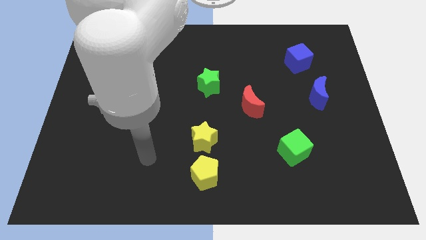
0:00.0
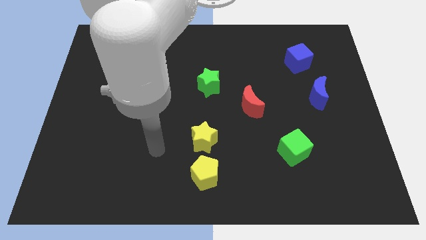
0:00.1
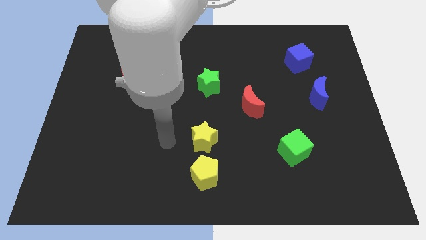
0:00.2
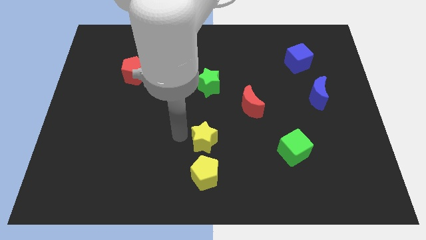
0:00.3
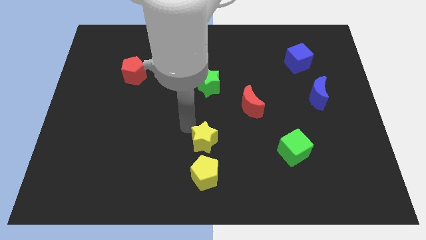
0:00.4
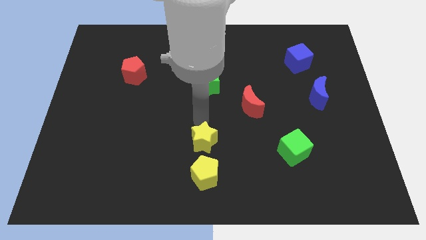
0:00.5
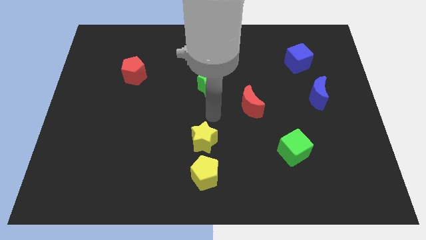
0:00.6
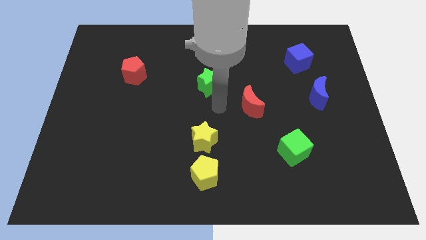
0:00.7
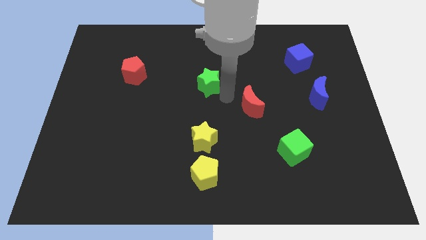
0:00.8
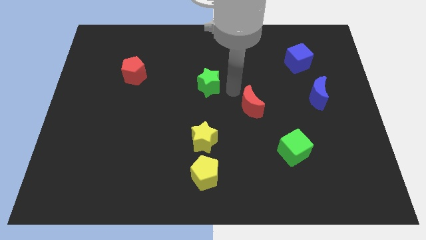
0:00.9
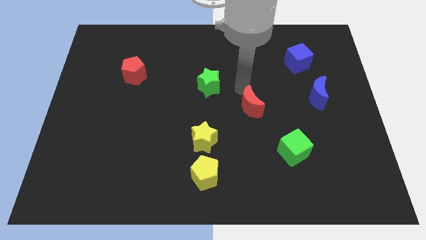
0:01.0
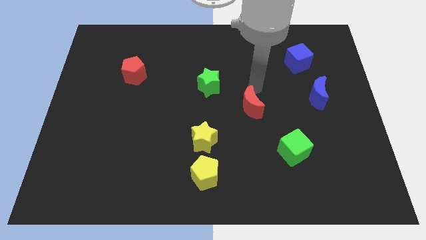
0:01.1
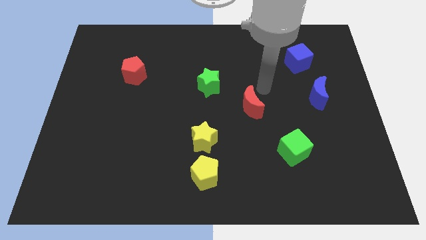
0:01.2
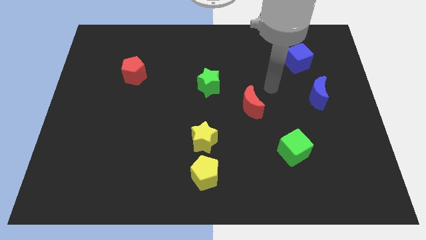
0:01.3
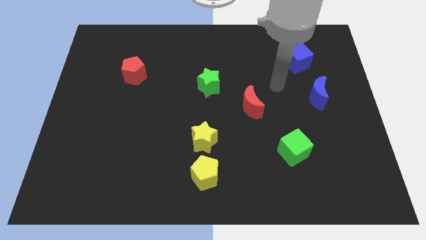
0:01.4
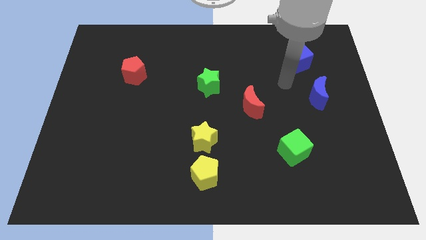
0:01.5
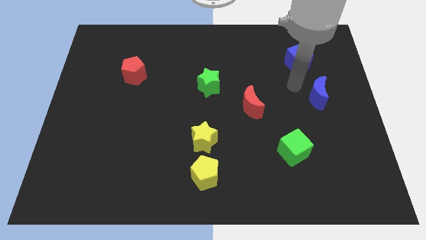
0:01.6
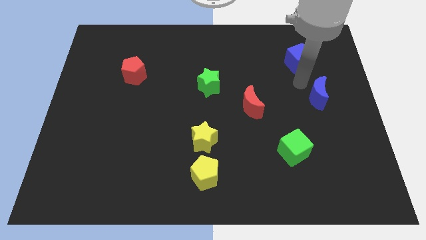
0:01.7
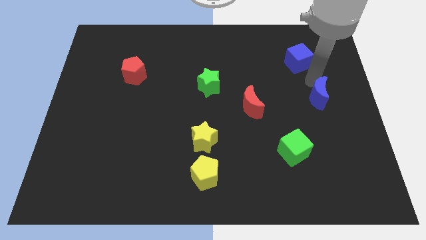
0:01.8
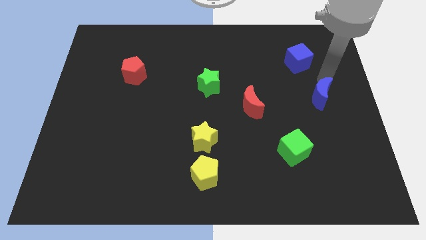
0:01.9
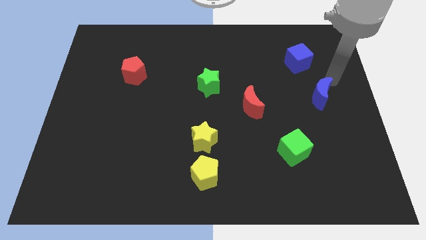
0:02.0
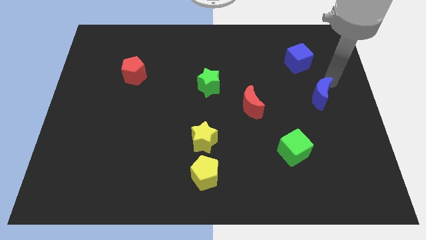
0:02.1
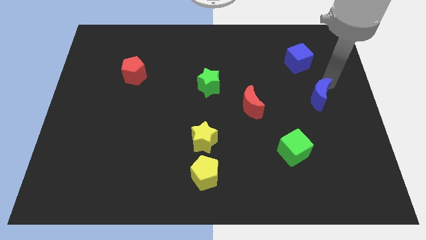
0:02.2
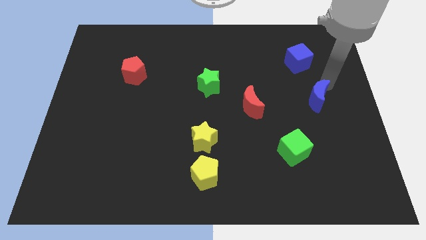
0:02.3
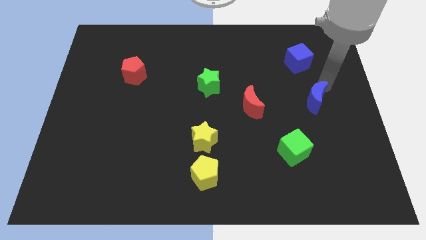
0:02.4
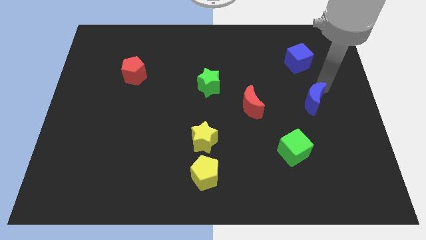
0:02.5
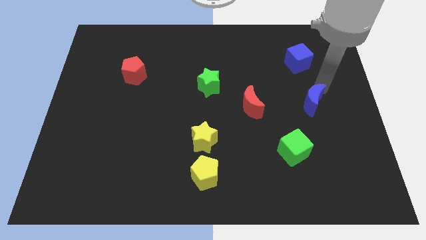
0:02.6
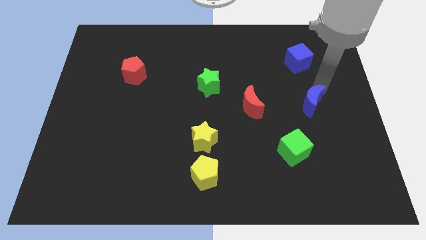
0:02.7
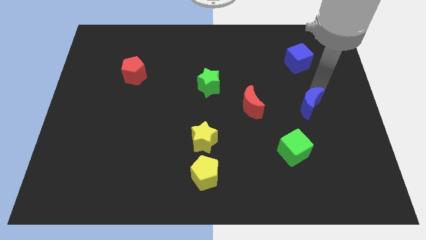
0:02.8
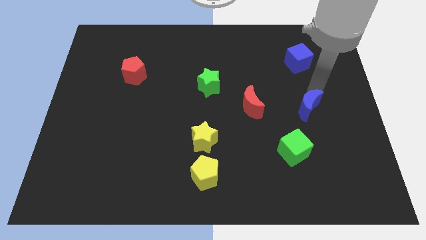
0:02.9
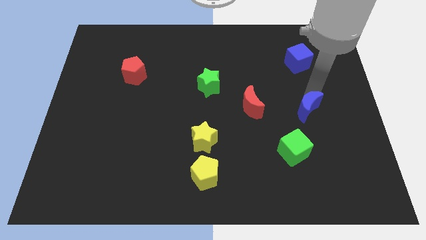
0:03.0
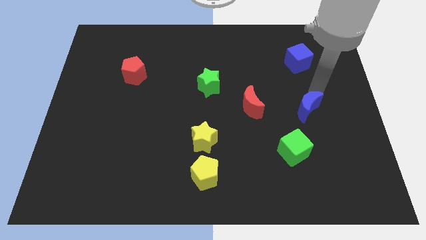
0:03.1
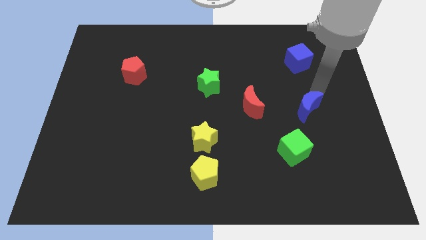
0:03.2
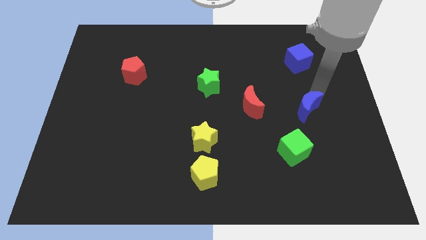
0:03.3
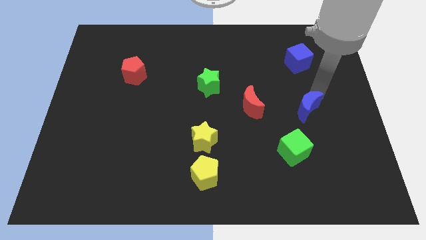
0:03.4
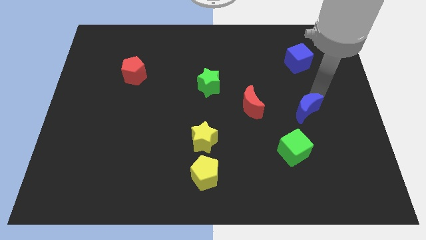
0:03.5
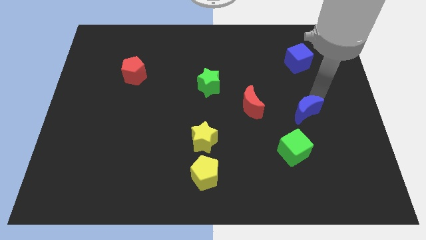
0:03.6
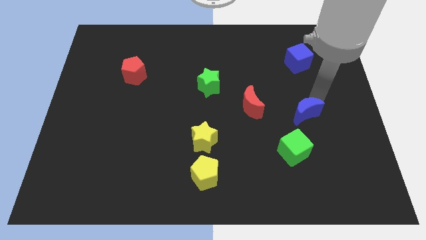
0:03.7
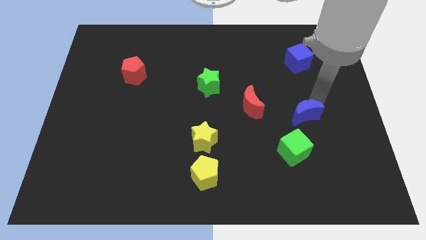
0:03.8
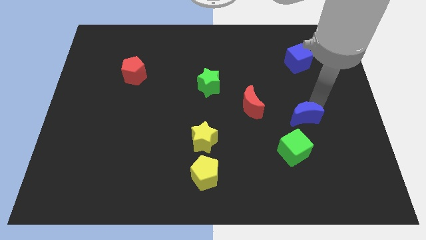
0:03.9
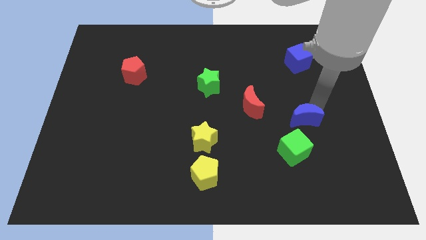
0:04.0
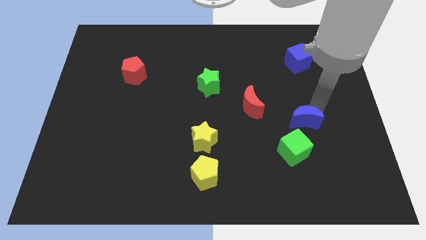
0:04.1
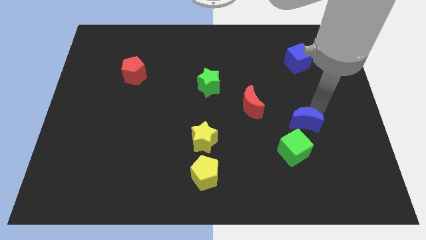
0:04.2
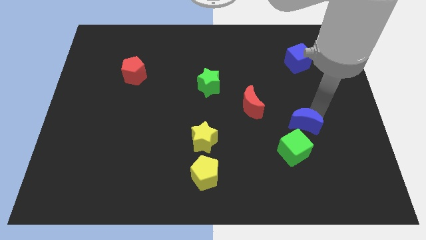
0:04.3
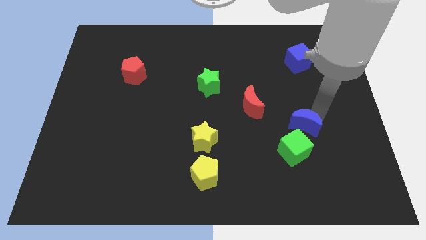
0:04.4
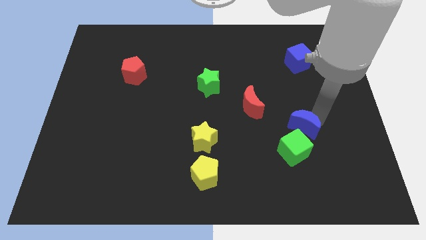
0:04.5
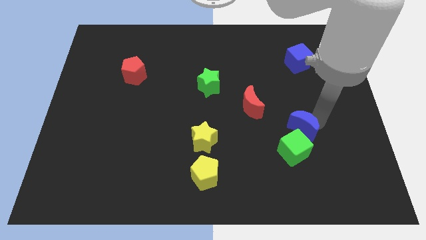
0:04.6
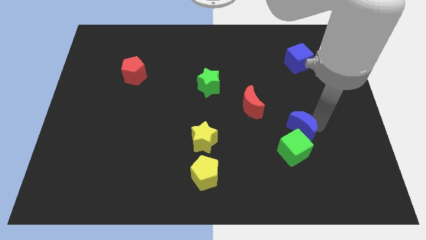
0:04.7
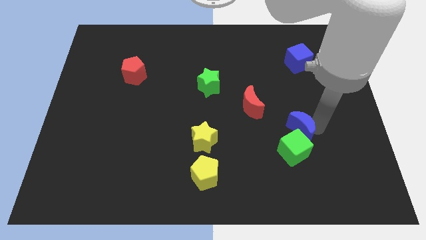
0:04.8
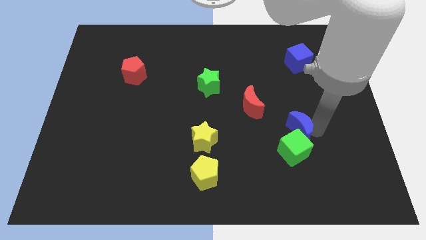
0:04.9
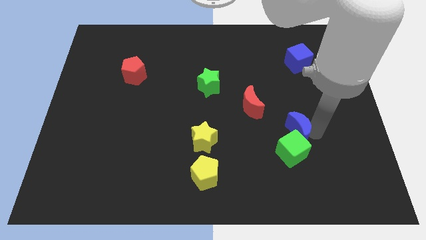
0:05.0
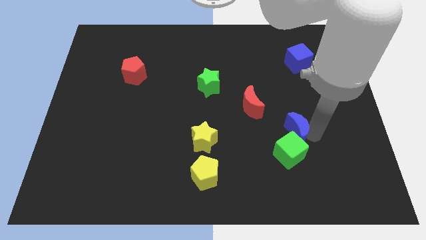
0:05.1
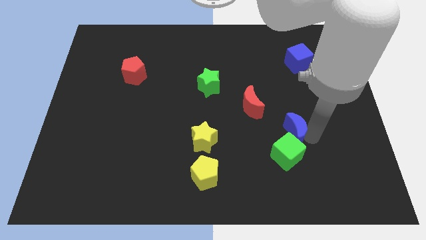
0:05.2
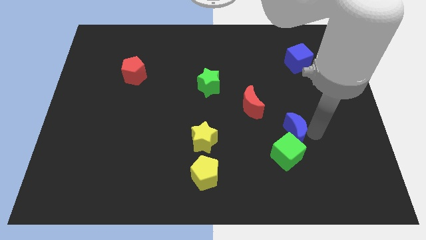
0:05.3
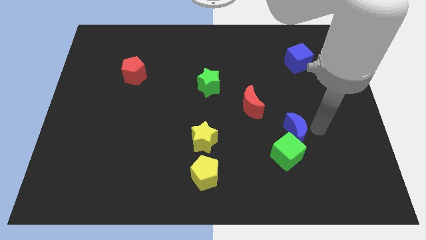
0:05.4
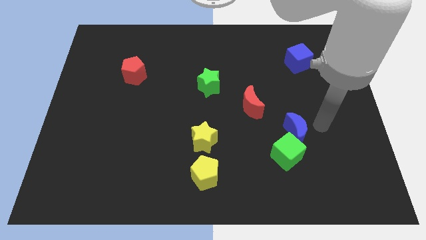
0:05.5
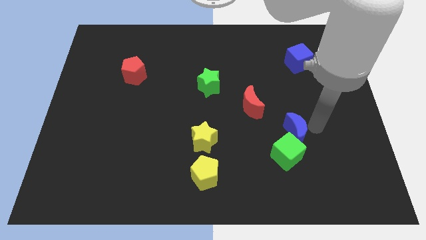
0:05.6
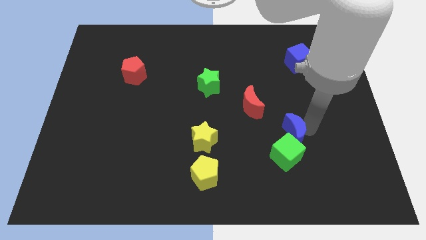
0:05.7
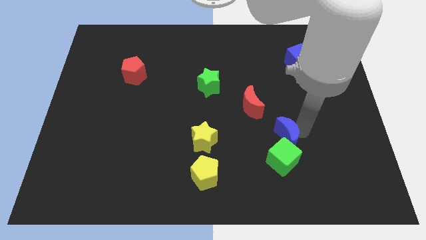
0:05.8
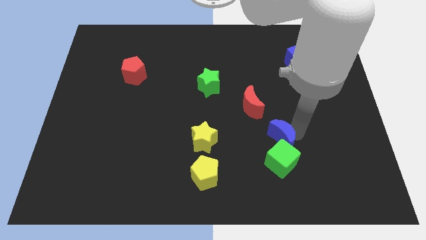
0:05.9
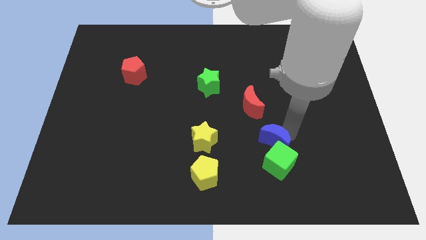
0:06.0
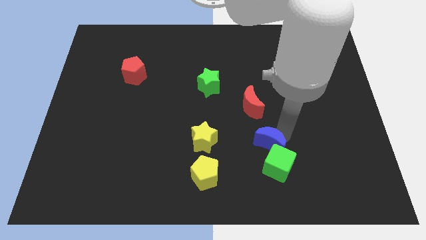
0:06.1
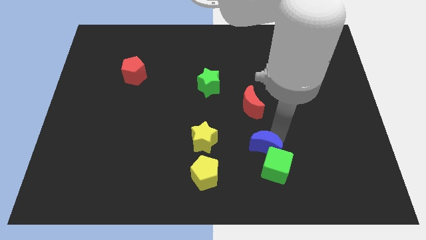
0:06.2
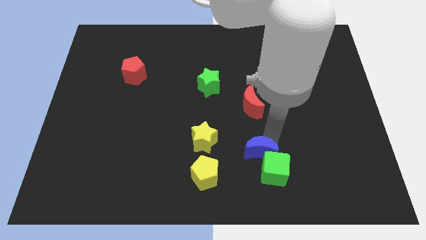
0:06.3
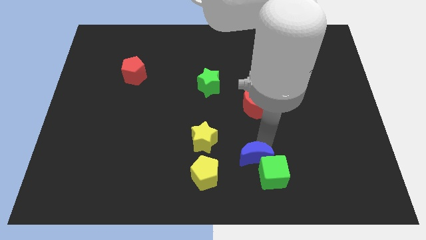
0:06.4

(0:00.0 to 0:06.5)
put the blue moon to the right side of the yellow pentagon
